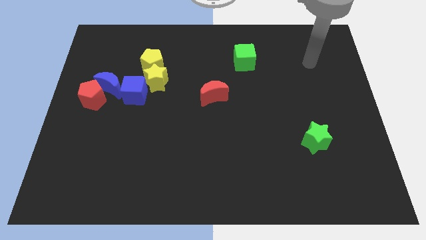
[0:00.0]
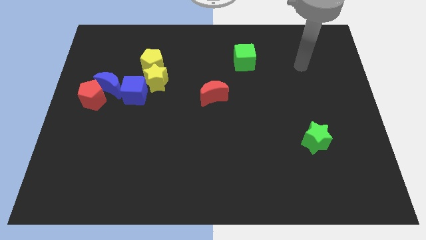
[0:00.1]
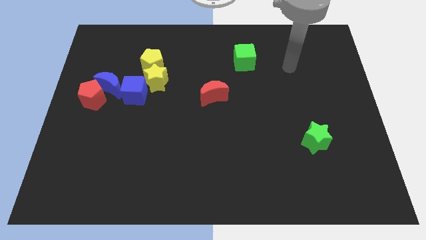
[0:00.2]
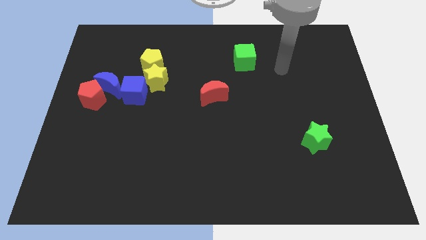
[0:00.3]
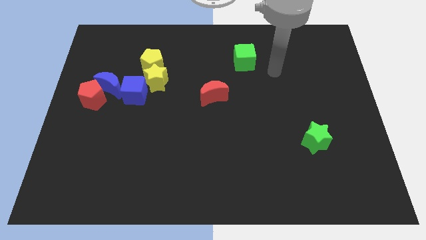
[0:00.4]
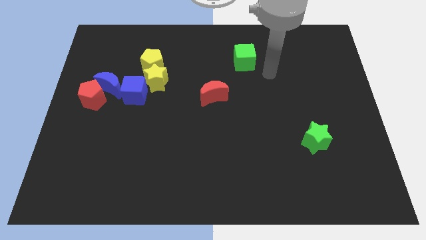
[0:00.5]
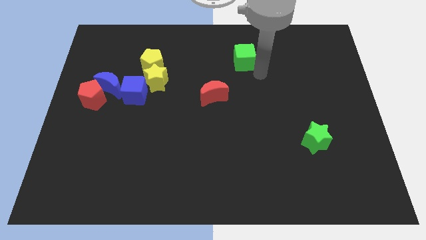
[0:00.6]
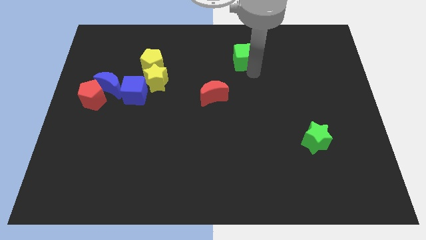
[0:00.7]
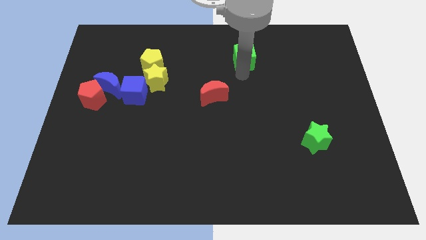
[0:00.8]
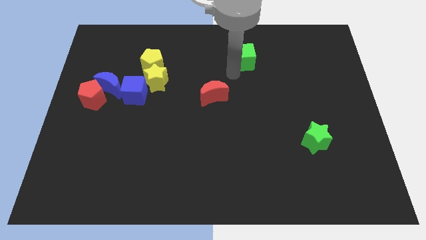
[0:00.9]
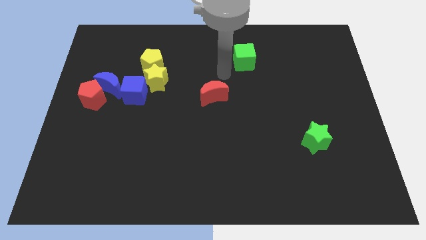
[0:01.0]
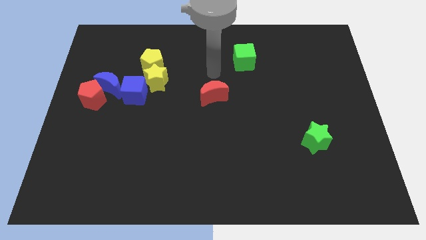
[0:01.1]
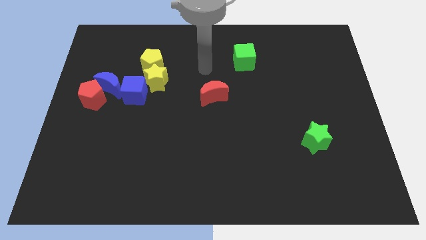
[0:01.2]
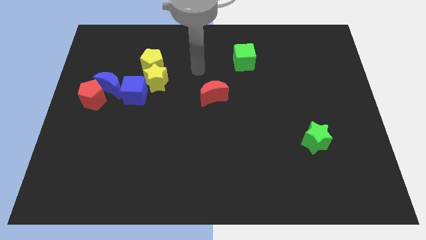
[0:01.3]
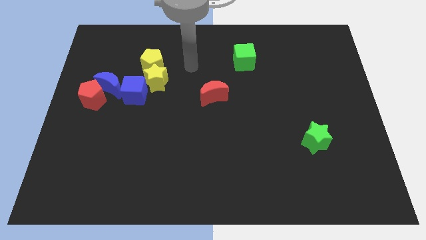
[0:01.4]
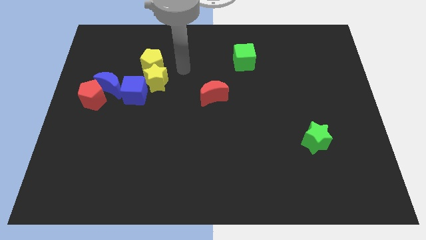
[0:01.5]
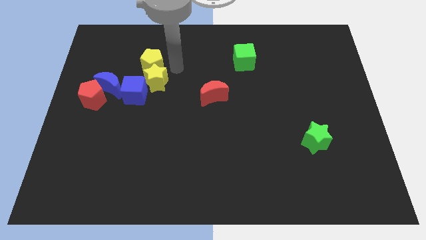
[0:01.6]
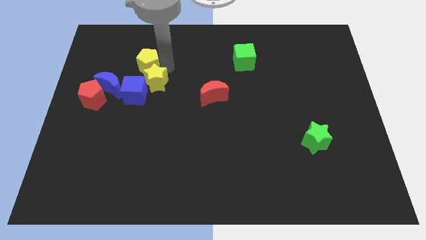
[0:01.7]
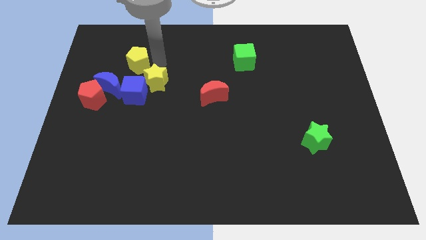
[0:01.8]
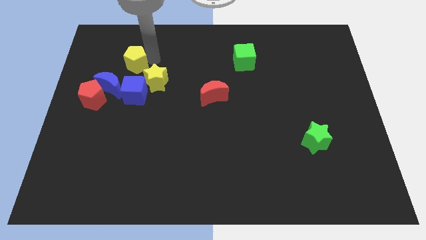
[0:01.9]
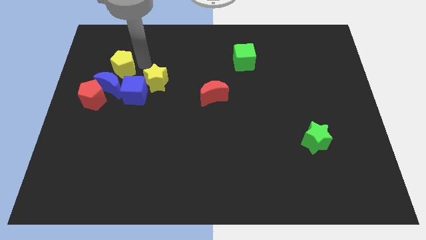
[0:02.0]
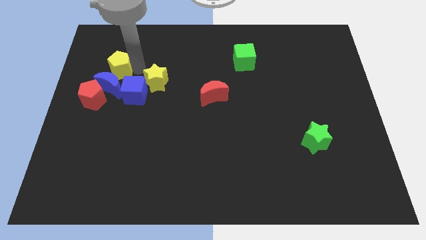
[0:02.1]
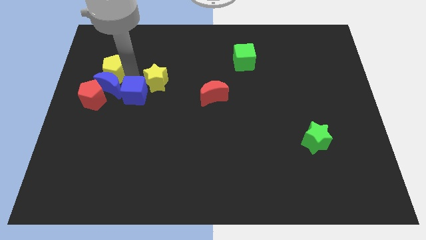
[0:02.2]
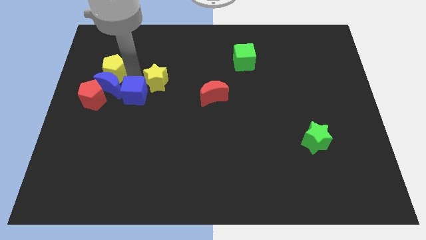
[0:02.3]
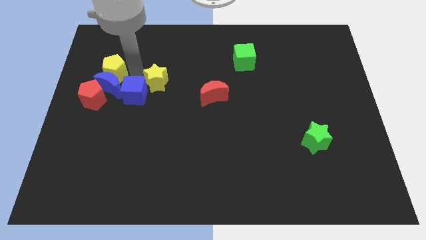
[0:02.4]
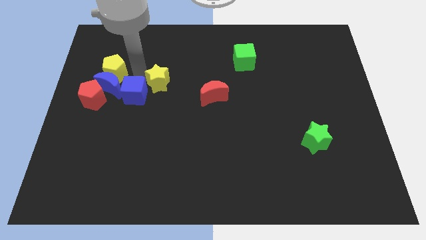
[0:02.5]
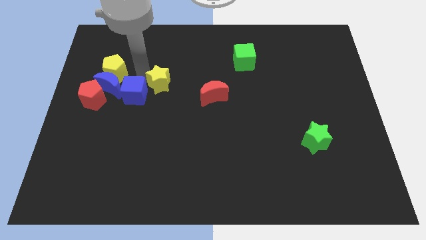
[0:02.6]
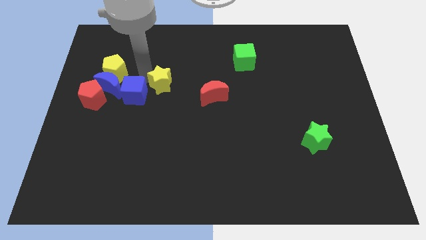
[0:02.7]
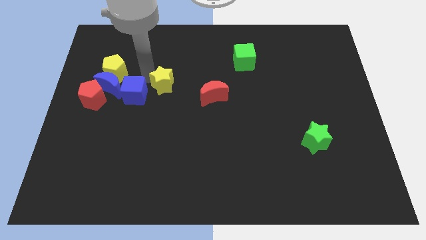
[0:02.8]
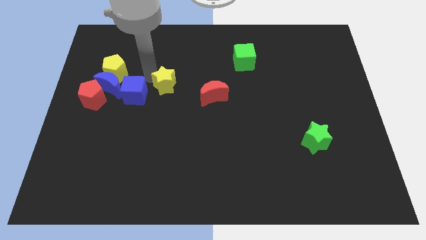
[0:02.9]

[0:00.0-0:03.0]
separate the yellow star from the yellow pentagon and blue cube

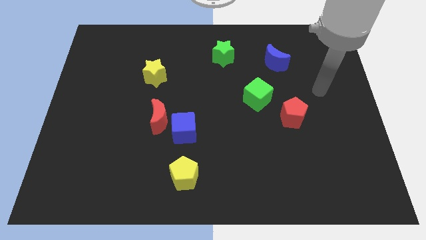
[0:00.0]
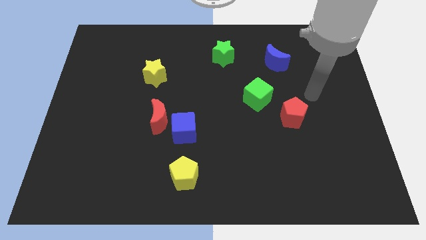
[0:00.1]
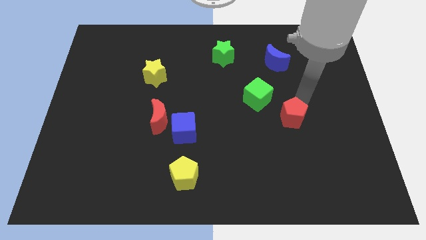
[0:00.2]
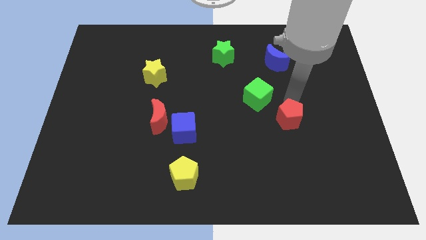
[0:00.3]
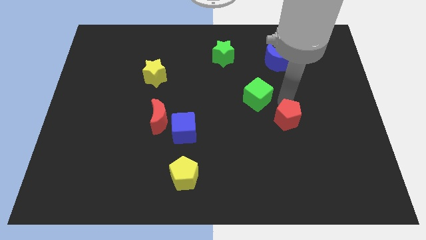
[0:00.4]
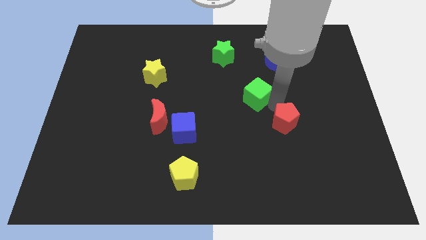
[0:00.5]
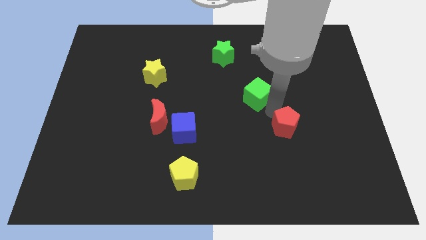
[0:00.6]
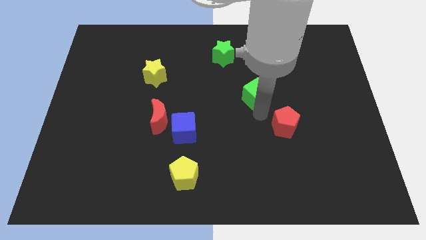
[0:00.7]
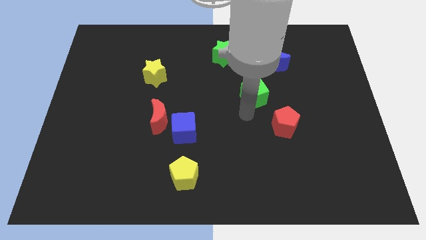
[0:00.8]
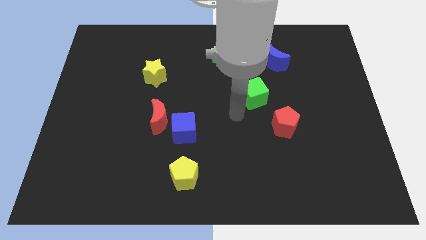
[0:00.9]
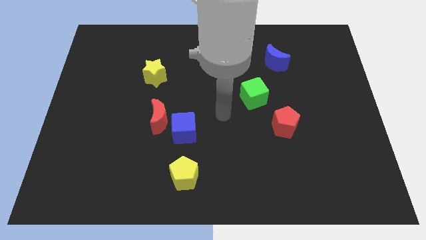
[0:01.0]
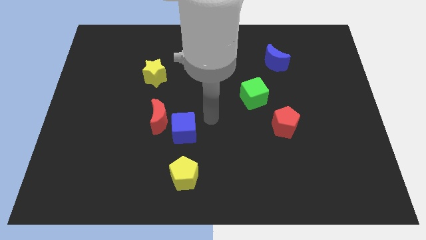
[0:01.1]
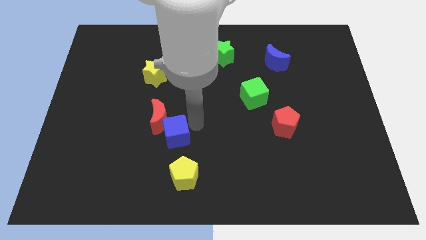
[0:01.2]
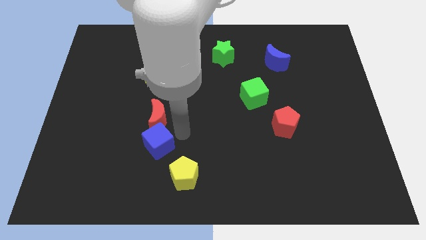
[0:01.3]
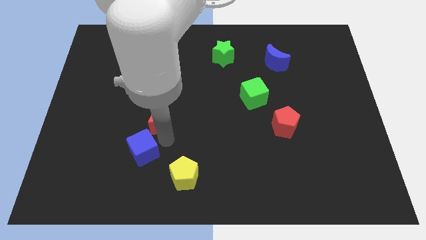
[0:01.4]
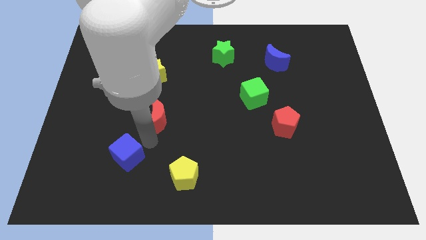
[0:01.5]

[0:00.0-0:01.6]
pull the red moon apart from the blue cube

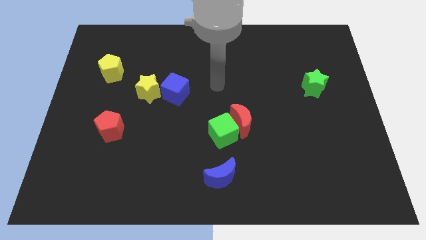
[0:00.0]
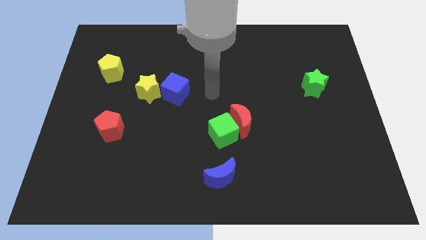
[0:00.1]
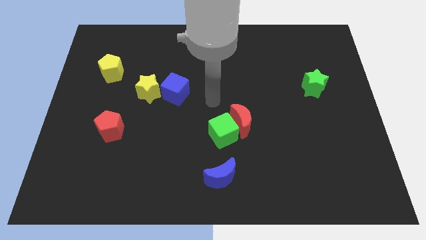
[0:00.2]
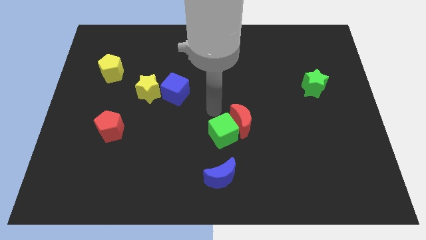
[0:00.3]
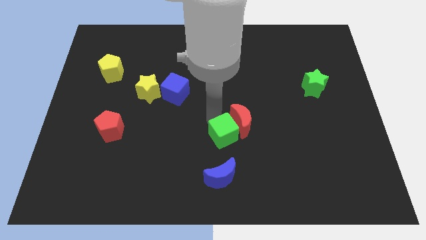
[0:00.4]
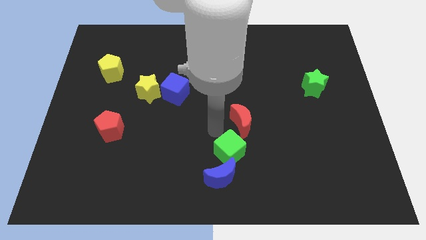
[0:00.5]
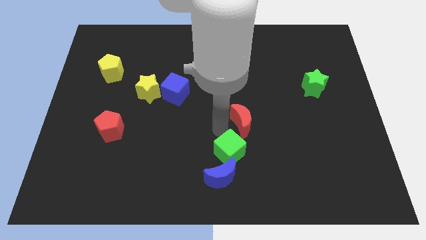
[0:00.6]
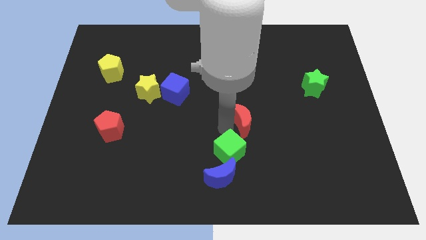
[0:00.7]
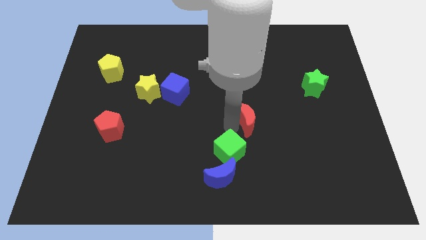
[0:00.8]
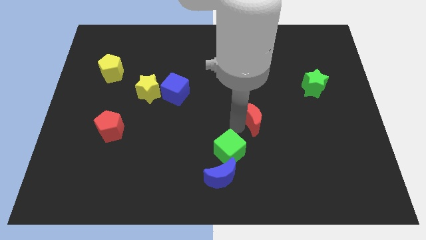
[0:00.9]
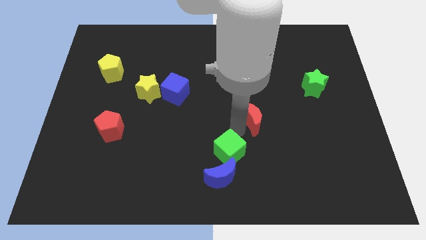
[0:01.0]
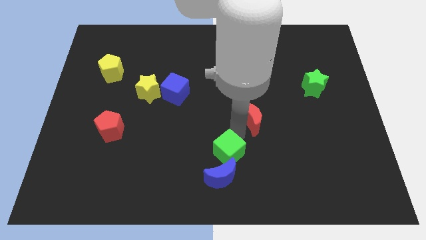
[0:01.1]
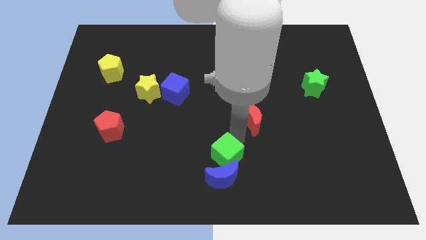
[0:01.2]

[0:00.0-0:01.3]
pull the red moon apart from the green cube

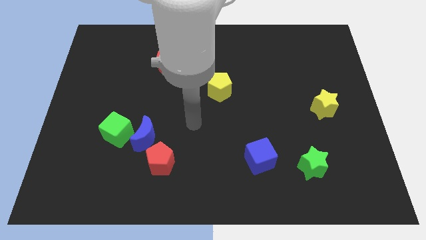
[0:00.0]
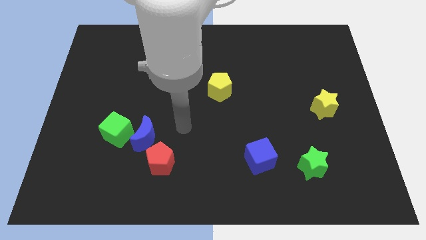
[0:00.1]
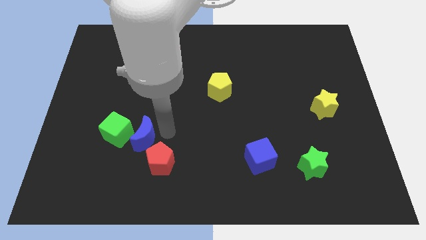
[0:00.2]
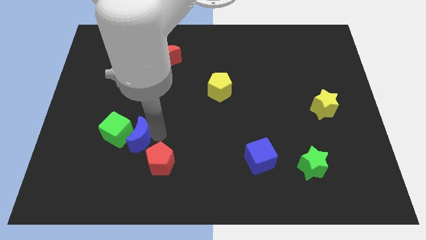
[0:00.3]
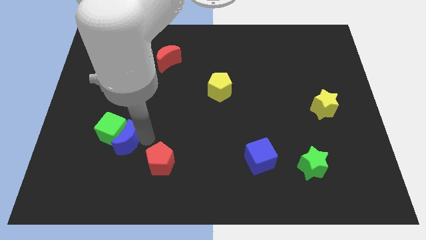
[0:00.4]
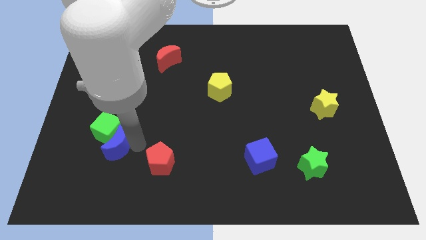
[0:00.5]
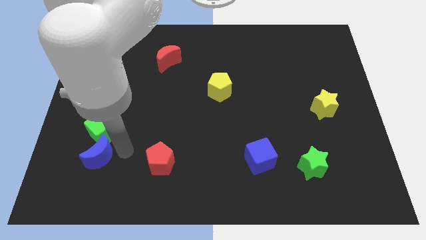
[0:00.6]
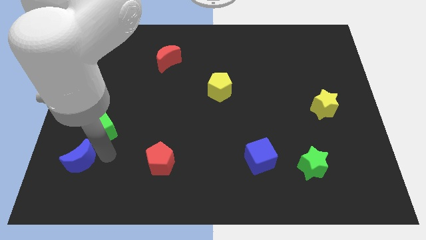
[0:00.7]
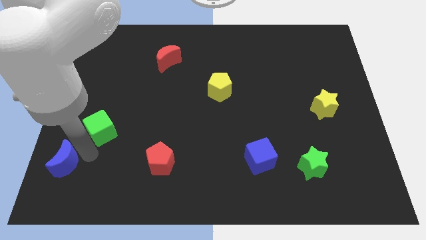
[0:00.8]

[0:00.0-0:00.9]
pull the green cube apart from the blue moon

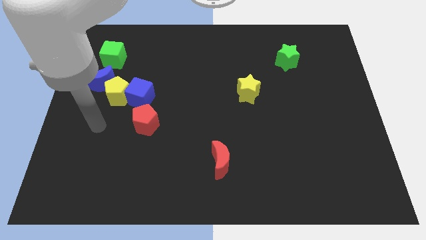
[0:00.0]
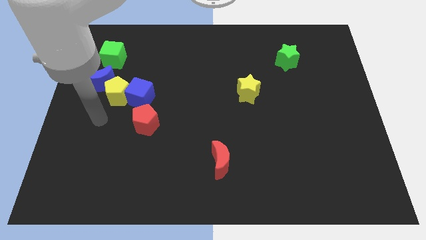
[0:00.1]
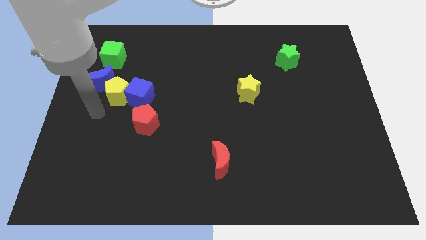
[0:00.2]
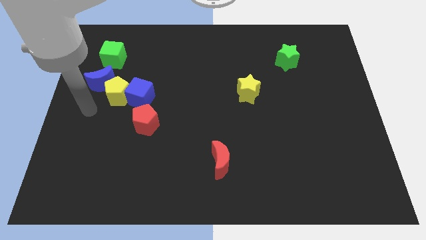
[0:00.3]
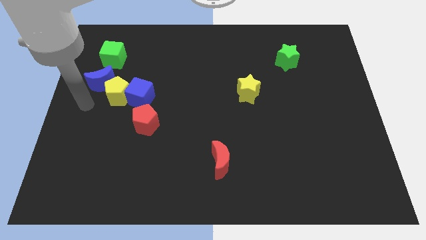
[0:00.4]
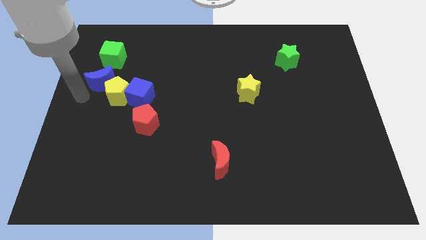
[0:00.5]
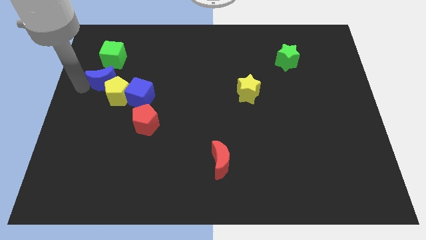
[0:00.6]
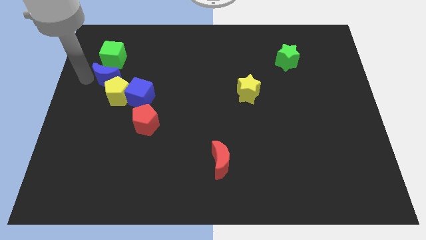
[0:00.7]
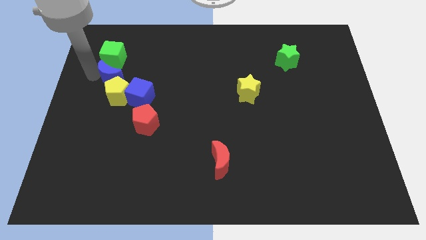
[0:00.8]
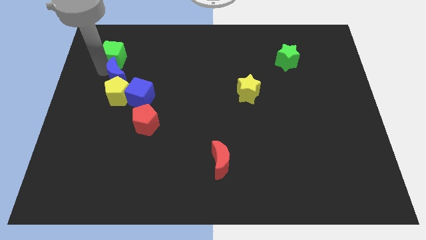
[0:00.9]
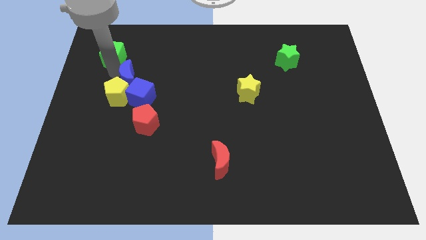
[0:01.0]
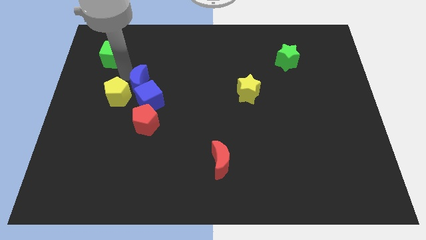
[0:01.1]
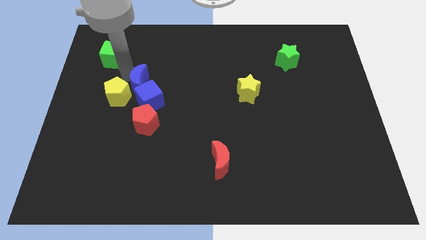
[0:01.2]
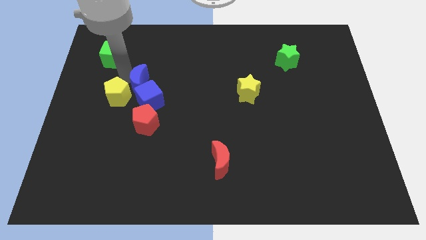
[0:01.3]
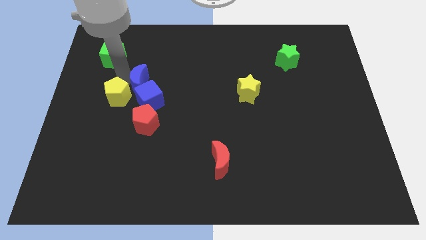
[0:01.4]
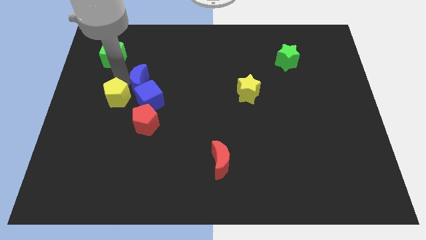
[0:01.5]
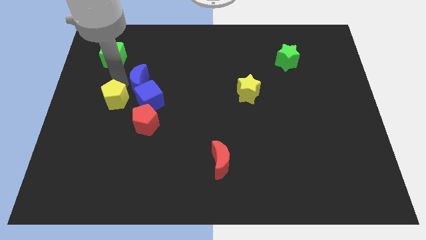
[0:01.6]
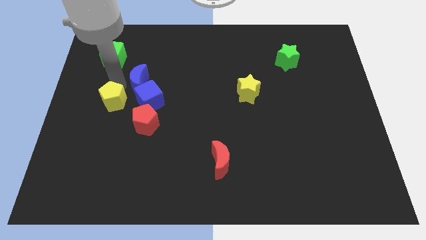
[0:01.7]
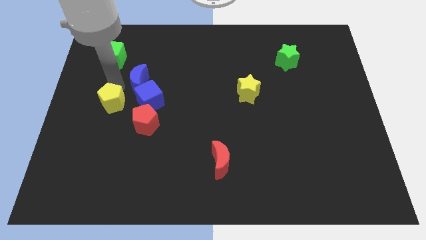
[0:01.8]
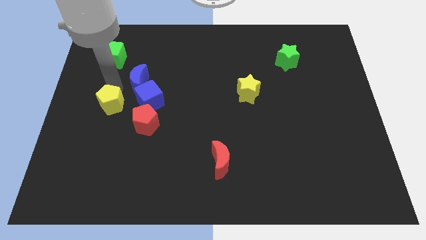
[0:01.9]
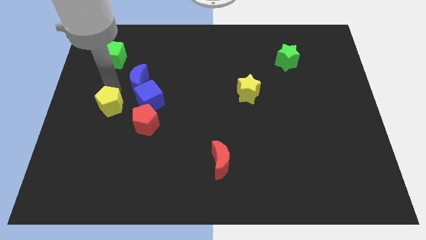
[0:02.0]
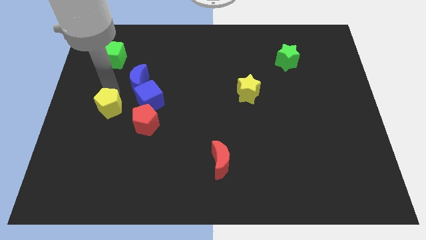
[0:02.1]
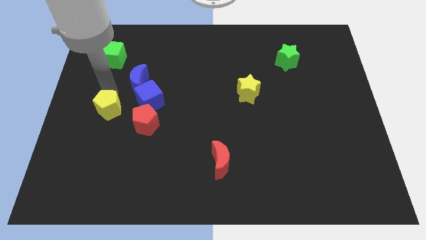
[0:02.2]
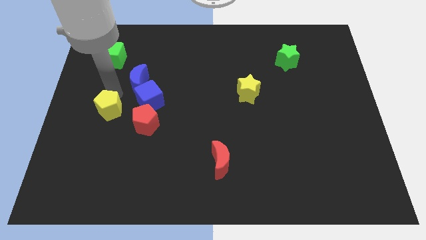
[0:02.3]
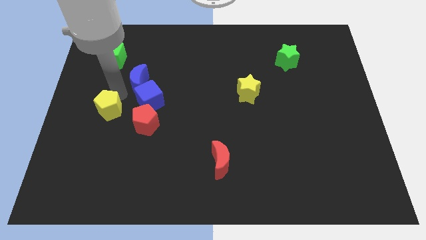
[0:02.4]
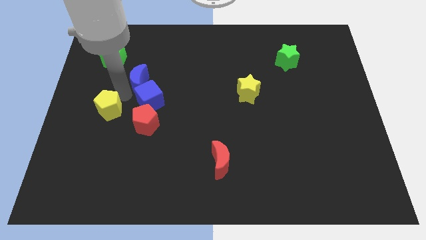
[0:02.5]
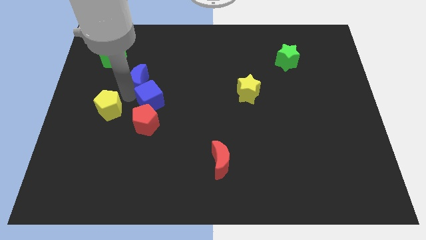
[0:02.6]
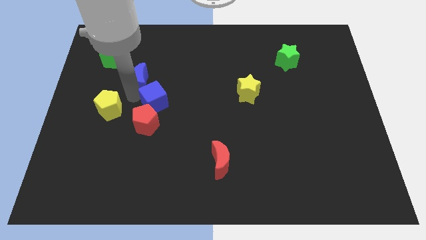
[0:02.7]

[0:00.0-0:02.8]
pull the yellow pentagon apart from the blue cube and blue moon
